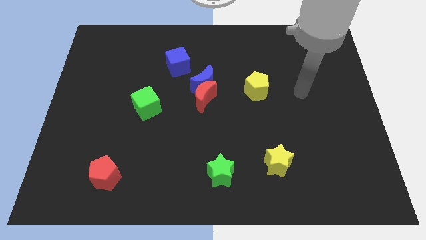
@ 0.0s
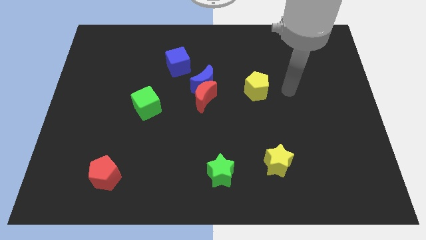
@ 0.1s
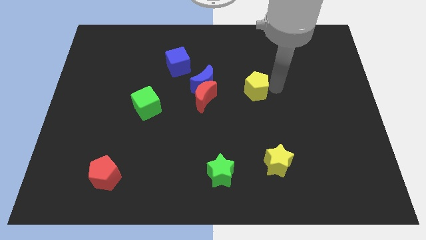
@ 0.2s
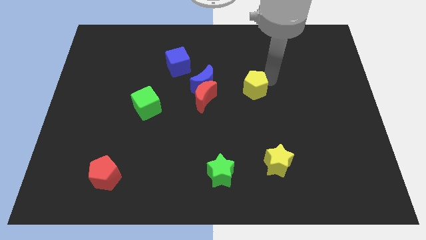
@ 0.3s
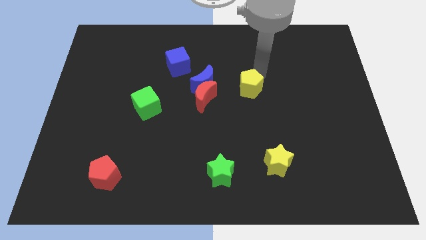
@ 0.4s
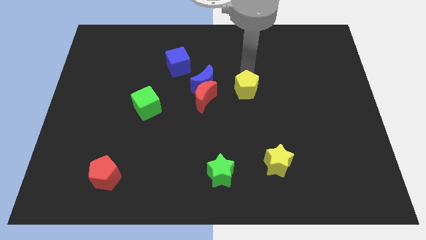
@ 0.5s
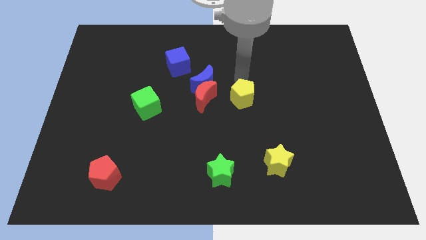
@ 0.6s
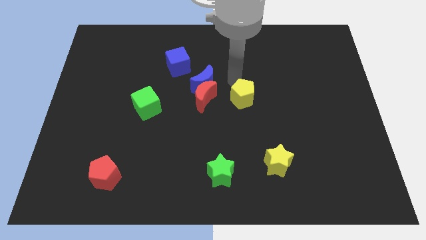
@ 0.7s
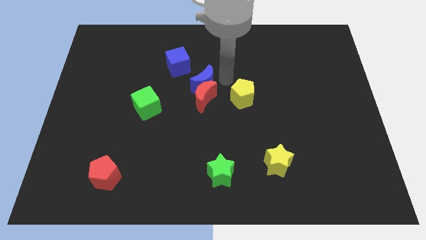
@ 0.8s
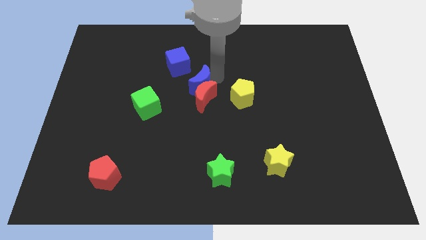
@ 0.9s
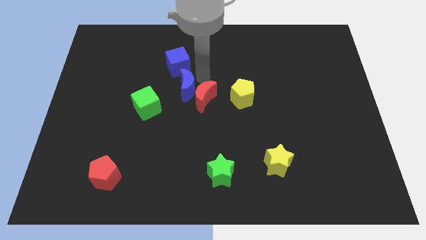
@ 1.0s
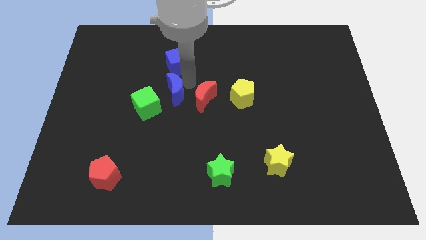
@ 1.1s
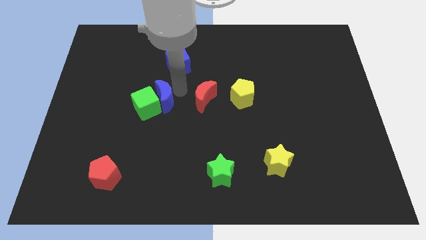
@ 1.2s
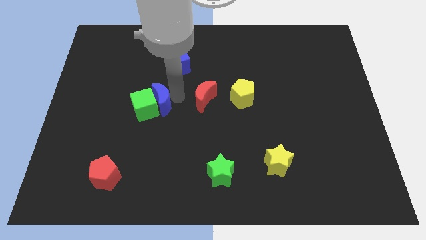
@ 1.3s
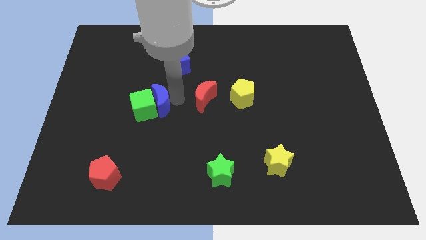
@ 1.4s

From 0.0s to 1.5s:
separate the red moon from the blue moon

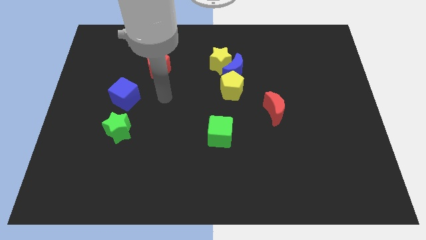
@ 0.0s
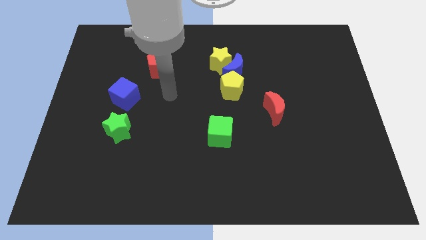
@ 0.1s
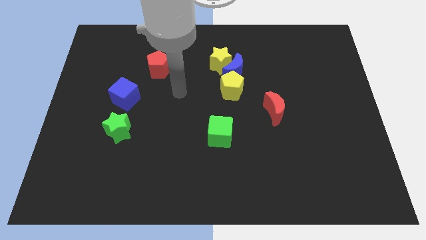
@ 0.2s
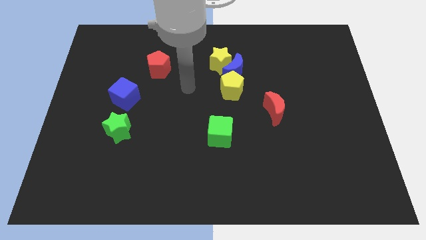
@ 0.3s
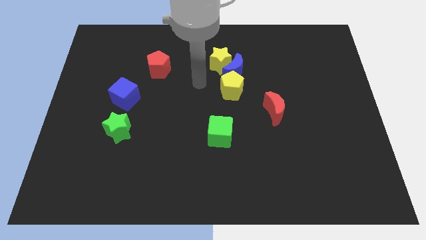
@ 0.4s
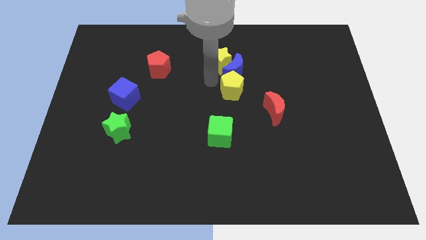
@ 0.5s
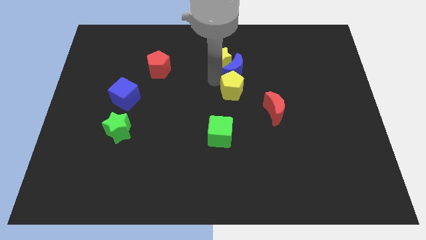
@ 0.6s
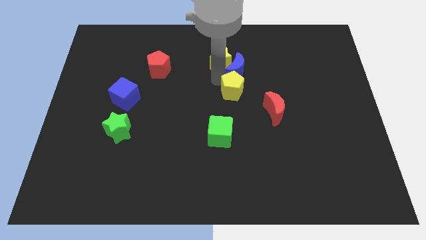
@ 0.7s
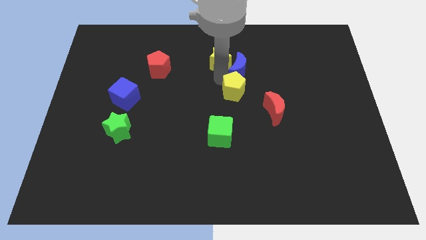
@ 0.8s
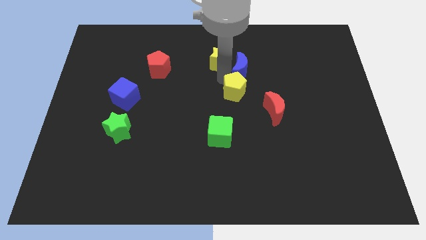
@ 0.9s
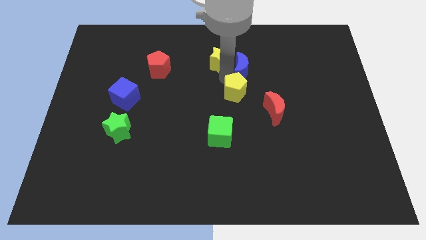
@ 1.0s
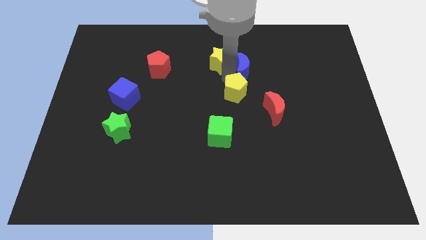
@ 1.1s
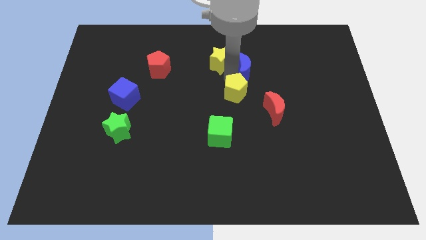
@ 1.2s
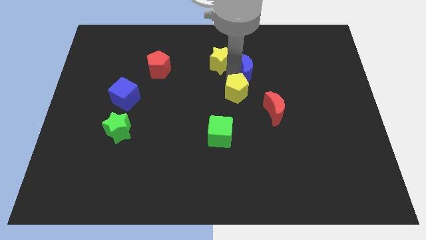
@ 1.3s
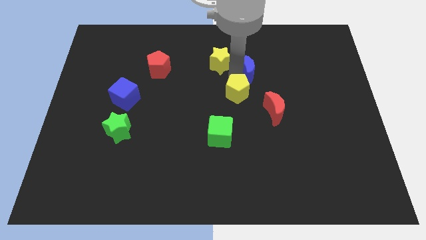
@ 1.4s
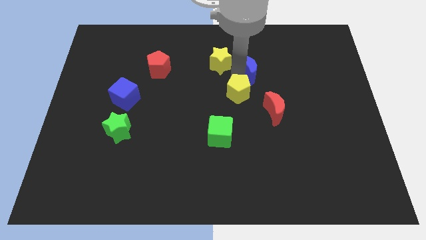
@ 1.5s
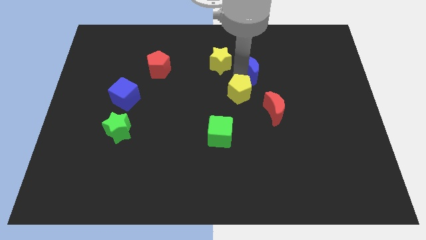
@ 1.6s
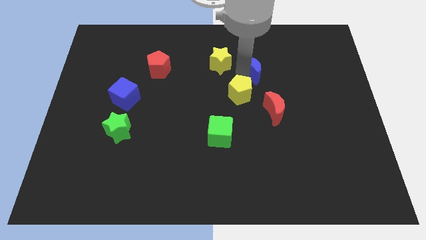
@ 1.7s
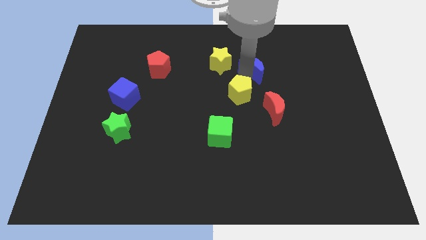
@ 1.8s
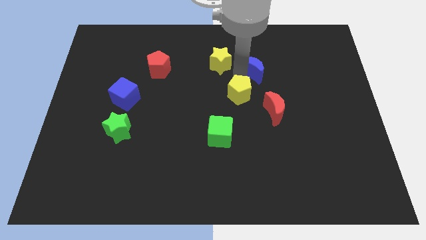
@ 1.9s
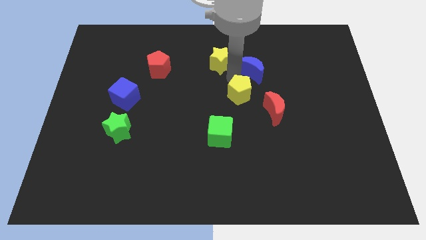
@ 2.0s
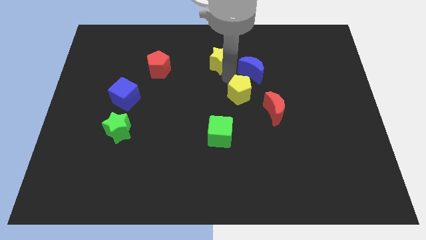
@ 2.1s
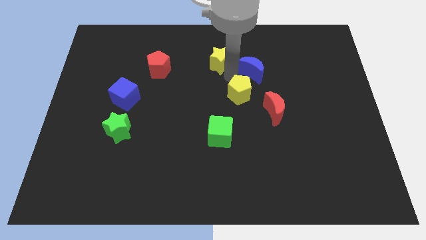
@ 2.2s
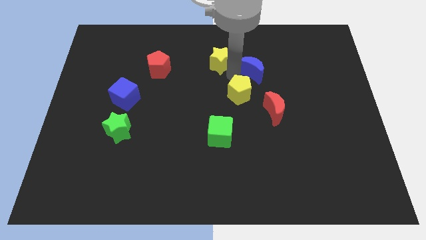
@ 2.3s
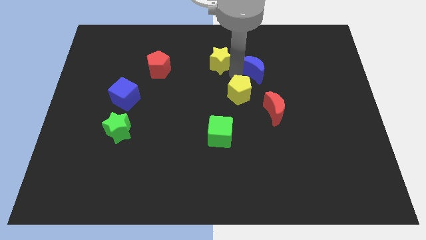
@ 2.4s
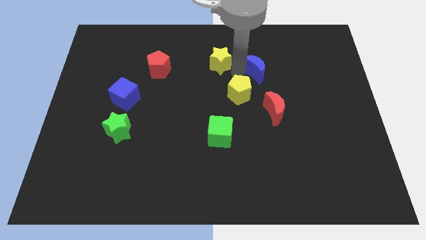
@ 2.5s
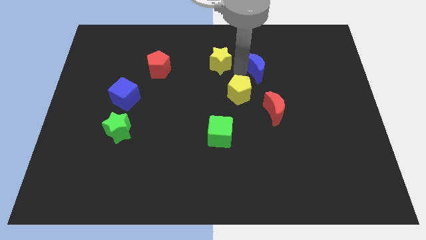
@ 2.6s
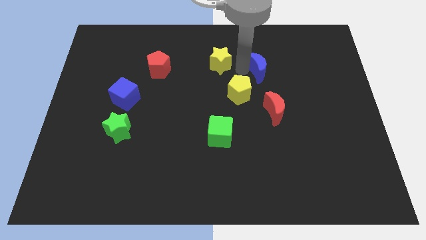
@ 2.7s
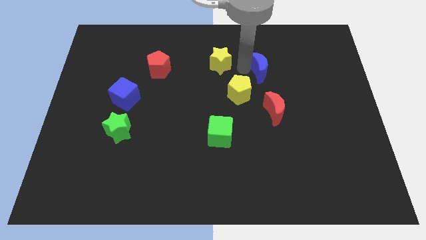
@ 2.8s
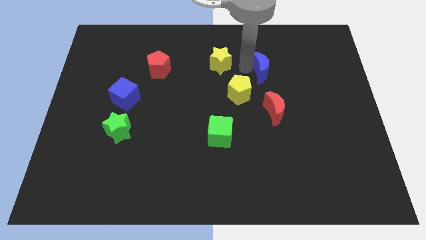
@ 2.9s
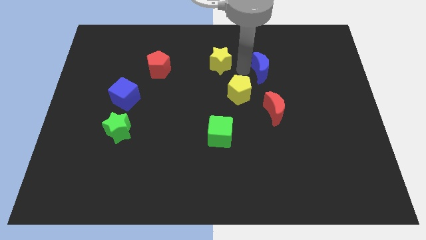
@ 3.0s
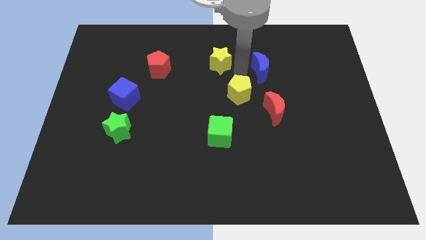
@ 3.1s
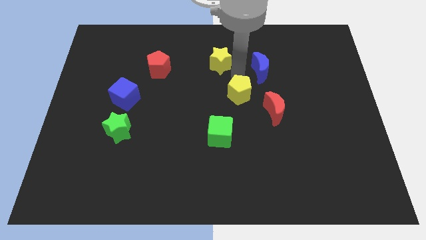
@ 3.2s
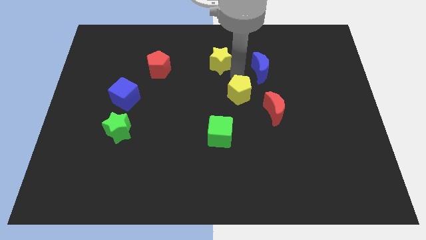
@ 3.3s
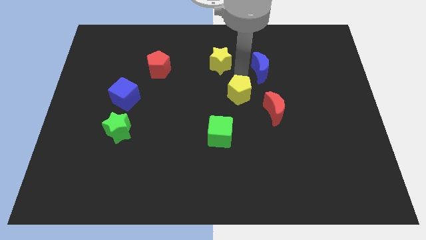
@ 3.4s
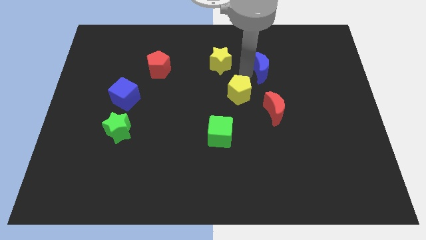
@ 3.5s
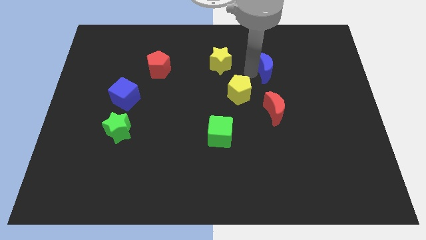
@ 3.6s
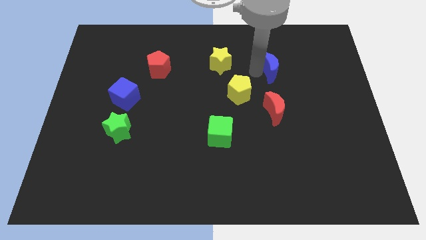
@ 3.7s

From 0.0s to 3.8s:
move the blue moon away from the yellow star and yellow pentagon

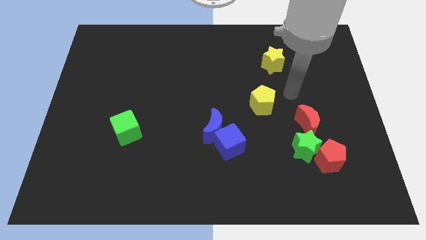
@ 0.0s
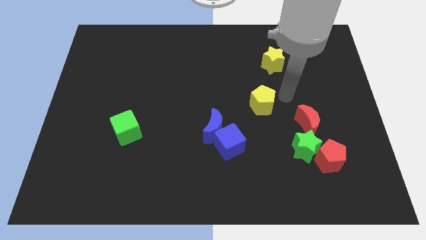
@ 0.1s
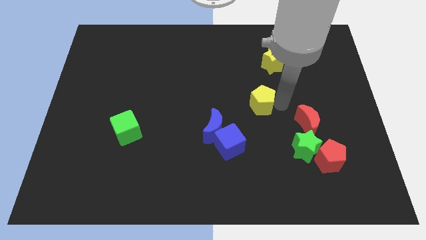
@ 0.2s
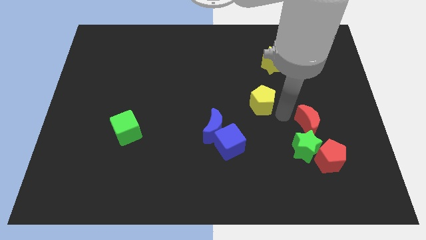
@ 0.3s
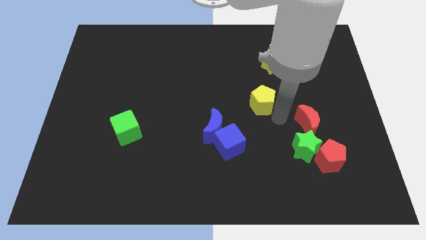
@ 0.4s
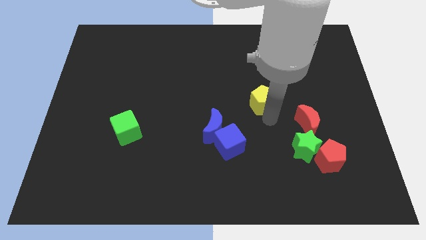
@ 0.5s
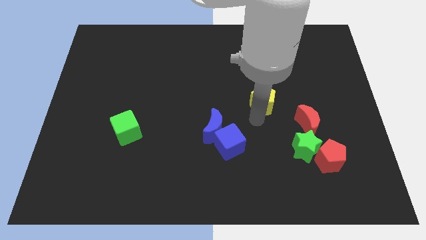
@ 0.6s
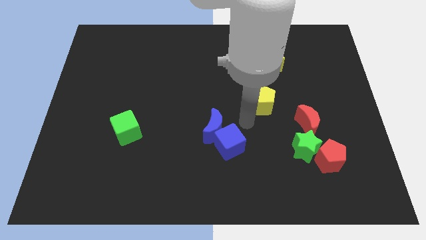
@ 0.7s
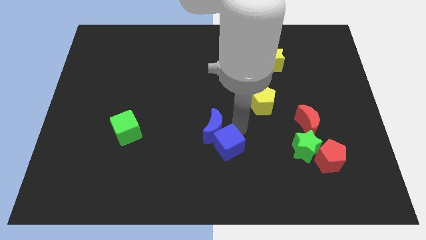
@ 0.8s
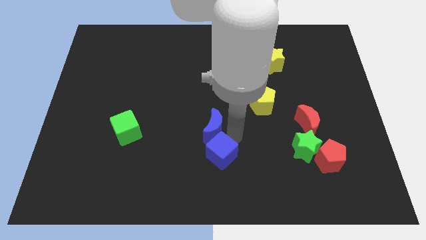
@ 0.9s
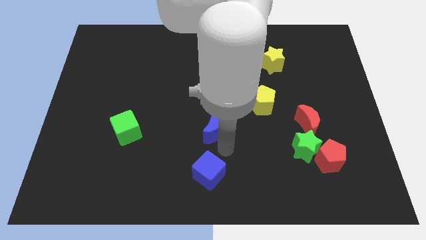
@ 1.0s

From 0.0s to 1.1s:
pull the blue moon apart from the blue cube

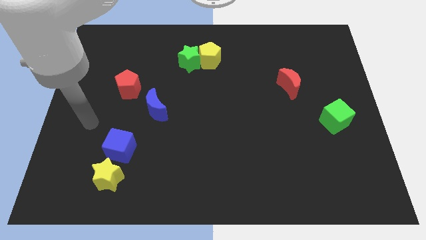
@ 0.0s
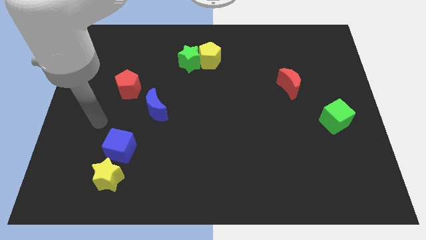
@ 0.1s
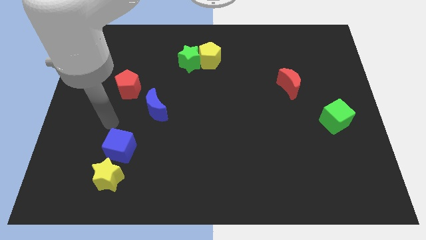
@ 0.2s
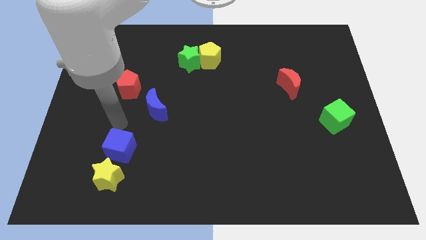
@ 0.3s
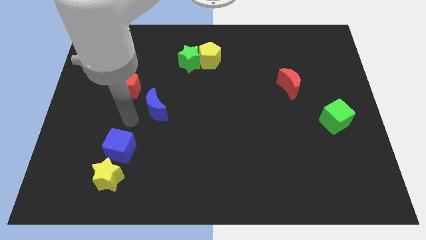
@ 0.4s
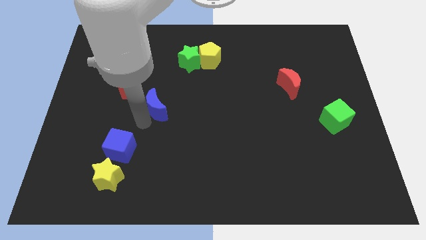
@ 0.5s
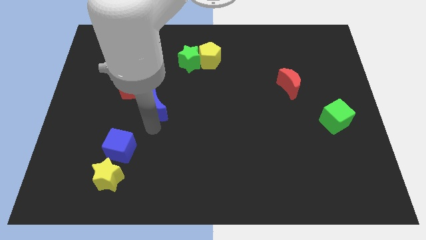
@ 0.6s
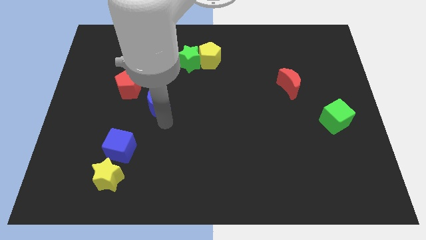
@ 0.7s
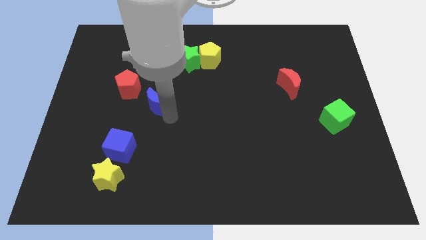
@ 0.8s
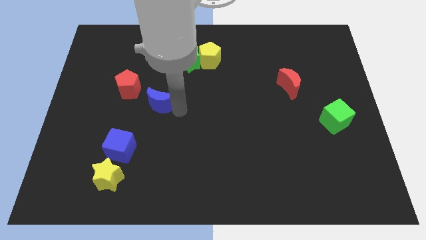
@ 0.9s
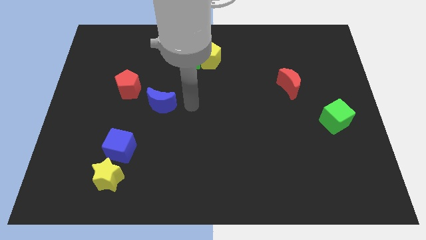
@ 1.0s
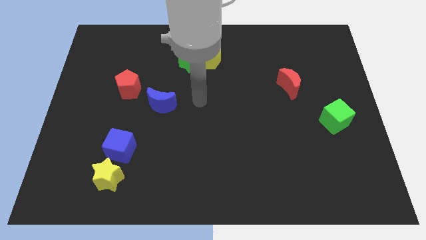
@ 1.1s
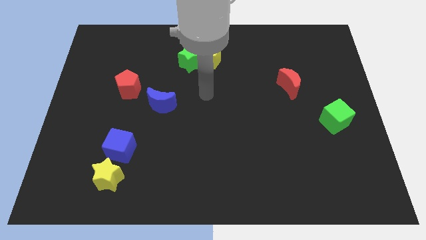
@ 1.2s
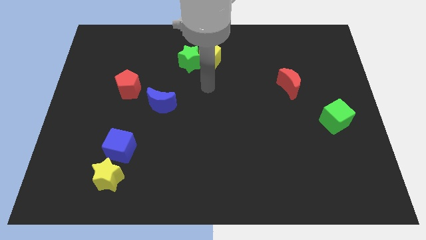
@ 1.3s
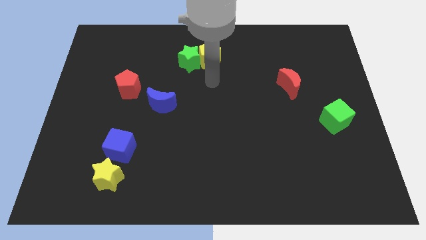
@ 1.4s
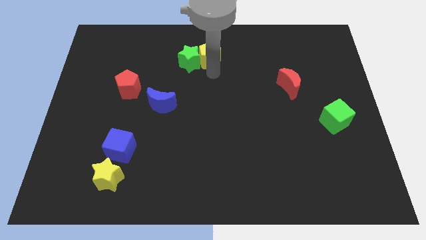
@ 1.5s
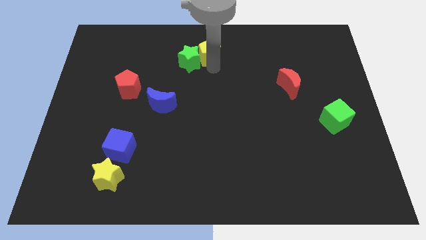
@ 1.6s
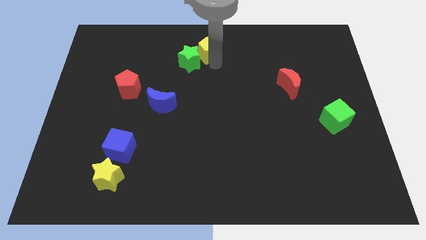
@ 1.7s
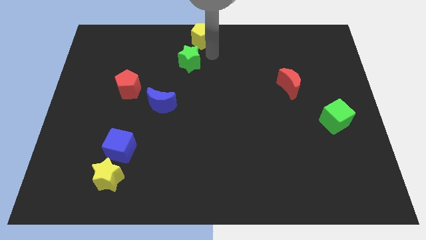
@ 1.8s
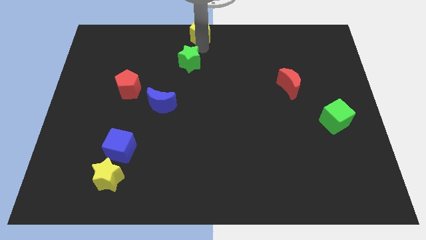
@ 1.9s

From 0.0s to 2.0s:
move the green star away from the yellow pentagon

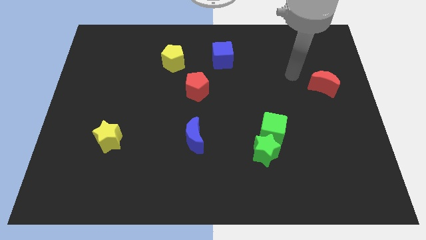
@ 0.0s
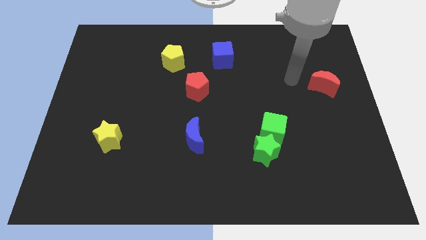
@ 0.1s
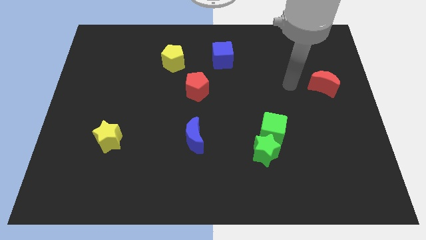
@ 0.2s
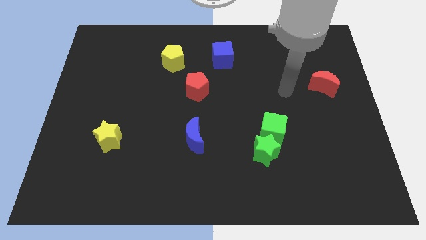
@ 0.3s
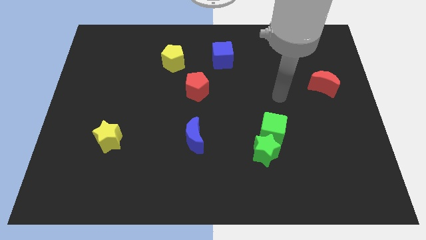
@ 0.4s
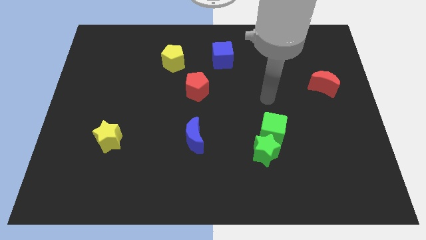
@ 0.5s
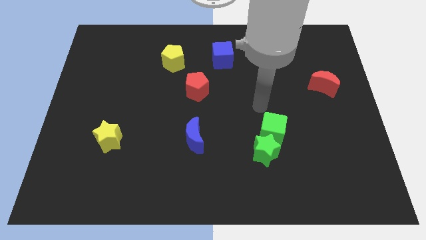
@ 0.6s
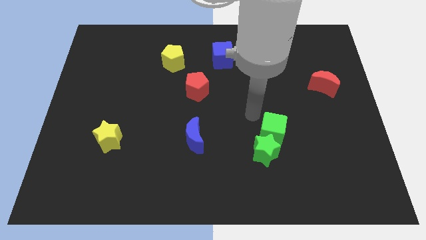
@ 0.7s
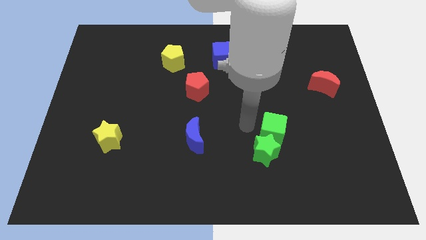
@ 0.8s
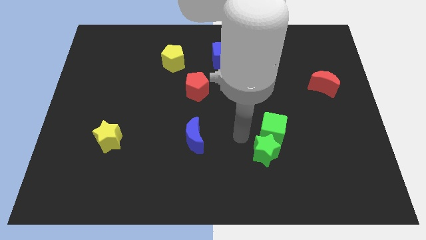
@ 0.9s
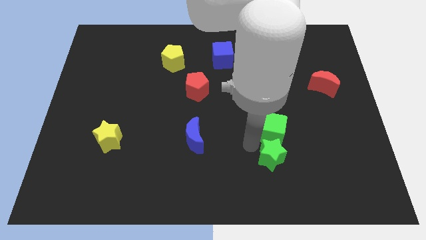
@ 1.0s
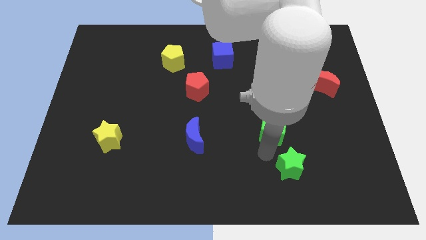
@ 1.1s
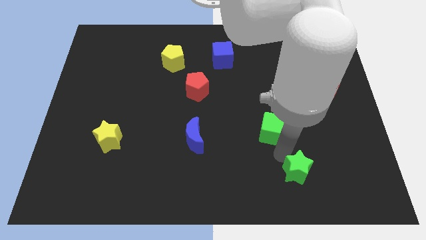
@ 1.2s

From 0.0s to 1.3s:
pull the green cube apart from the green star
